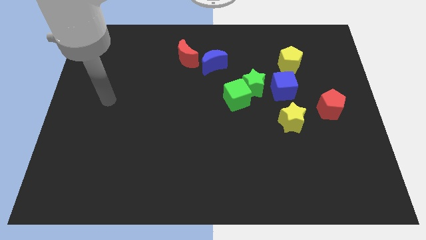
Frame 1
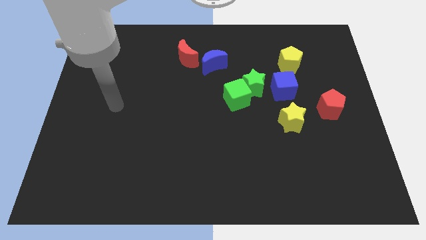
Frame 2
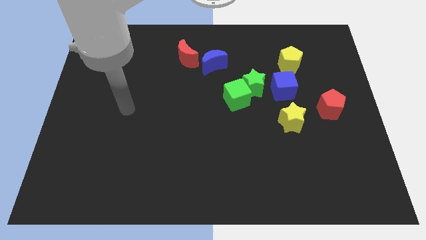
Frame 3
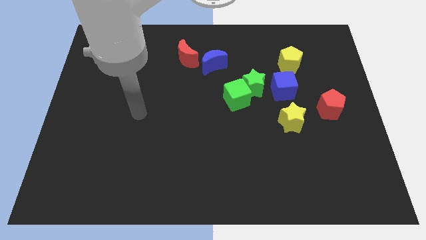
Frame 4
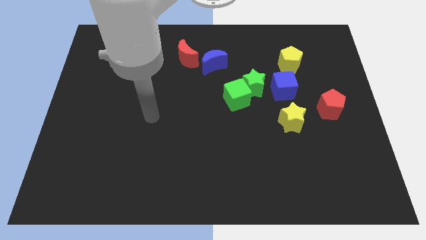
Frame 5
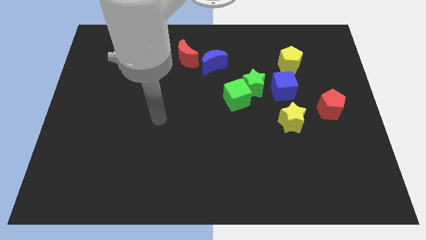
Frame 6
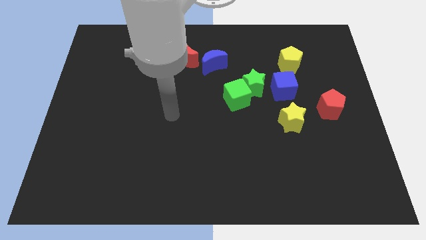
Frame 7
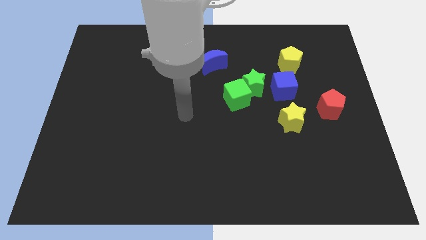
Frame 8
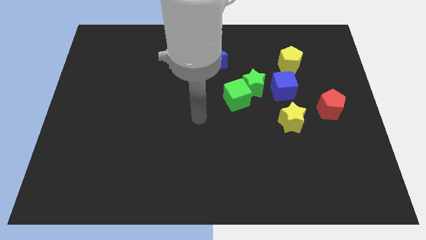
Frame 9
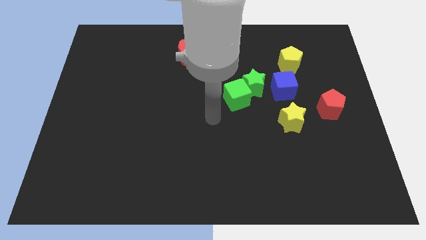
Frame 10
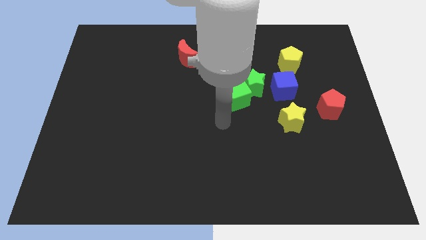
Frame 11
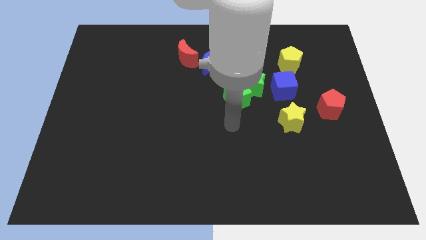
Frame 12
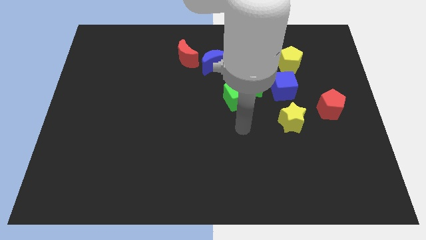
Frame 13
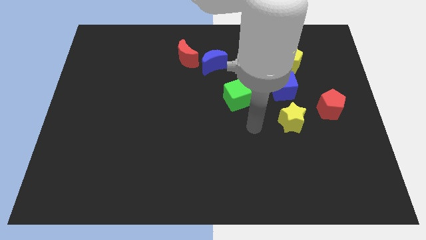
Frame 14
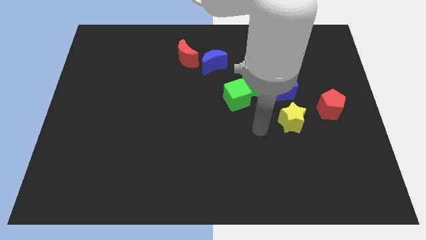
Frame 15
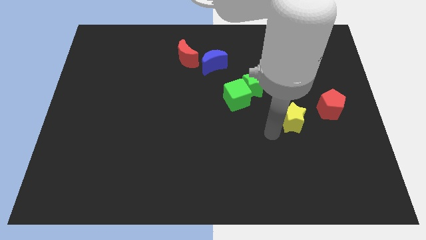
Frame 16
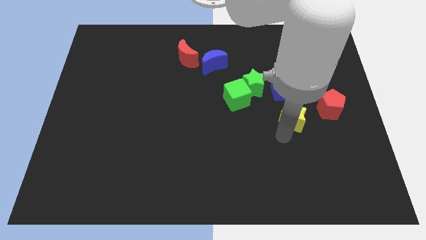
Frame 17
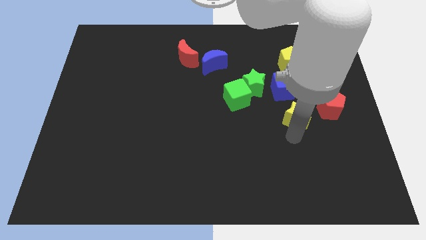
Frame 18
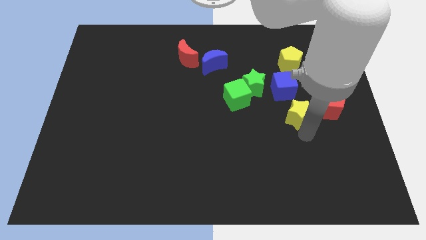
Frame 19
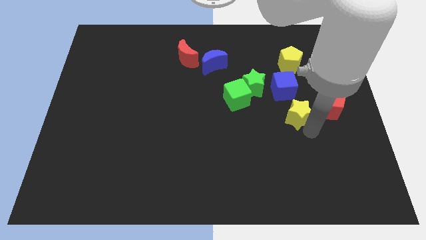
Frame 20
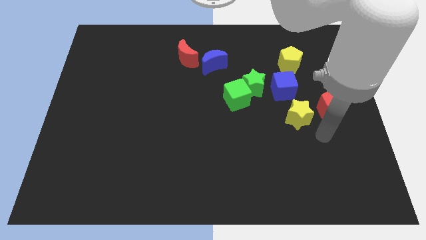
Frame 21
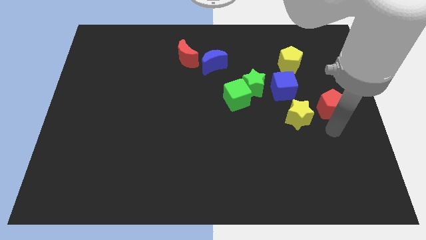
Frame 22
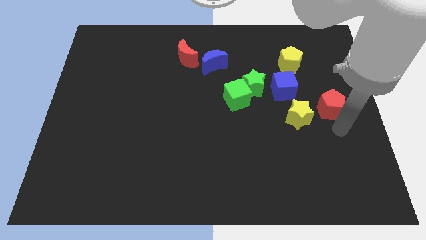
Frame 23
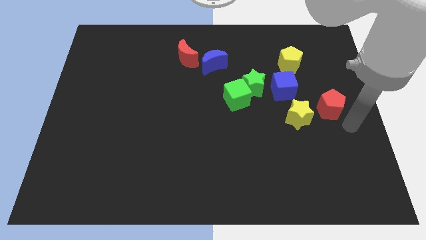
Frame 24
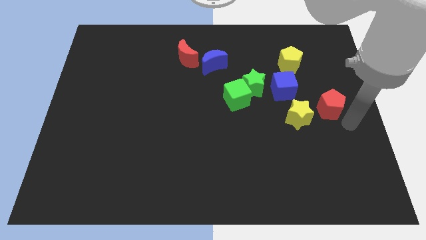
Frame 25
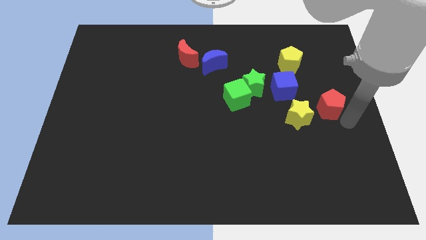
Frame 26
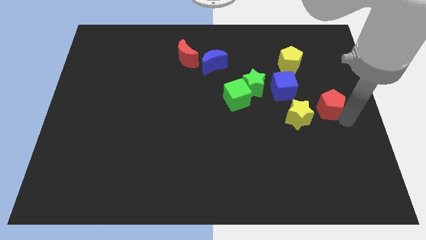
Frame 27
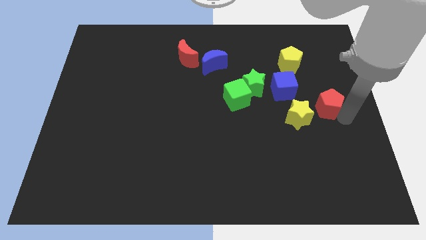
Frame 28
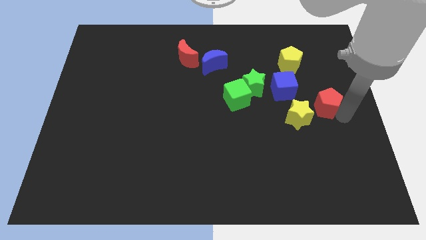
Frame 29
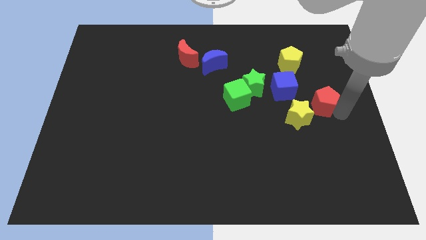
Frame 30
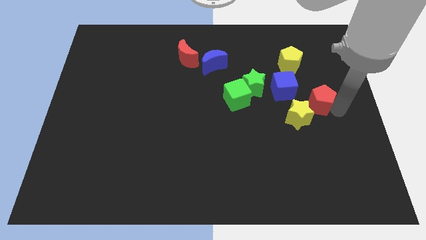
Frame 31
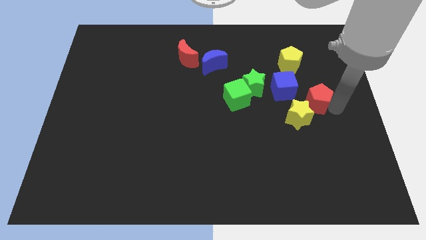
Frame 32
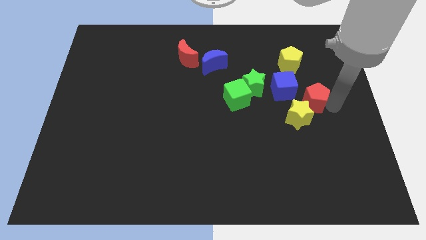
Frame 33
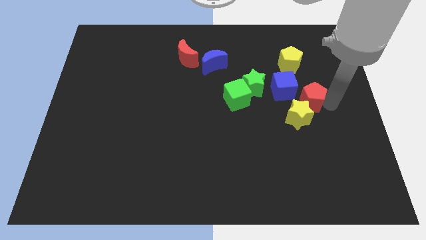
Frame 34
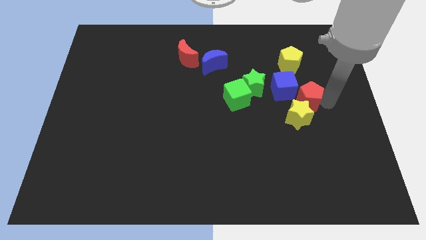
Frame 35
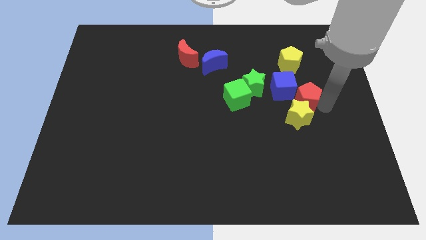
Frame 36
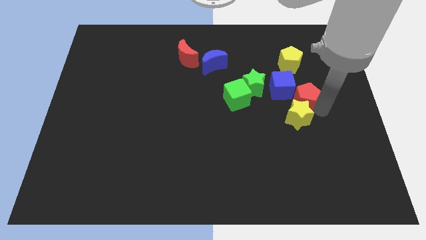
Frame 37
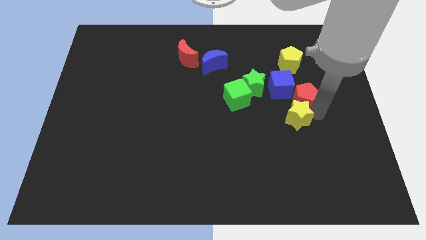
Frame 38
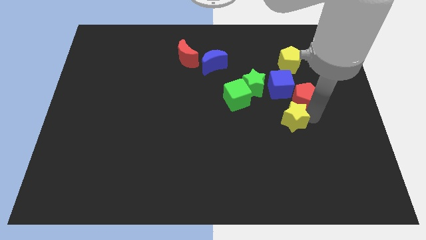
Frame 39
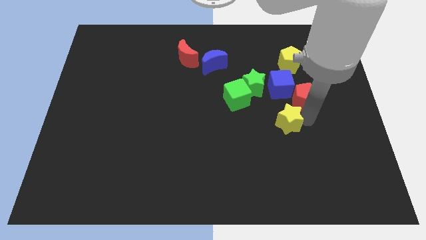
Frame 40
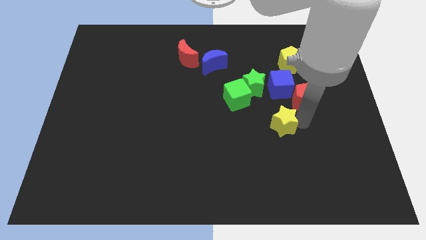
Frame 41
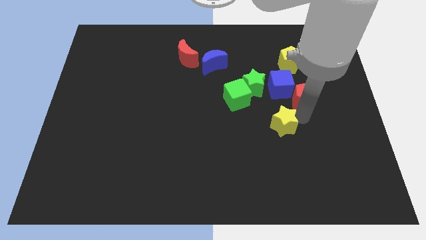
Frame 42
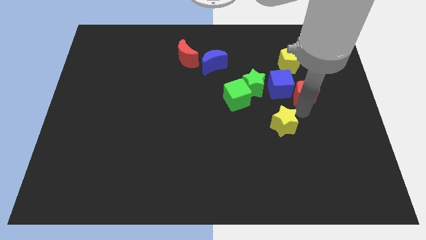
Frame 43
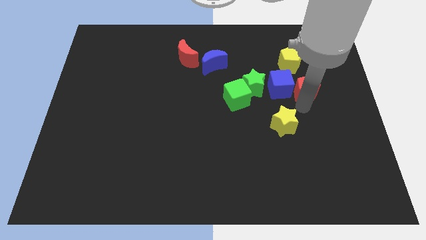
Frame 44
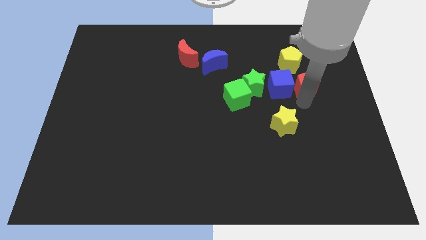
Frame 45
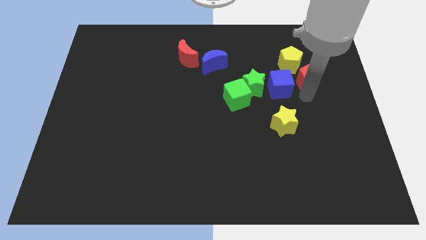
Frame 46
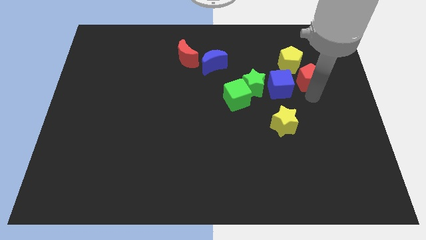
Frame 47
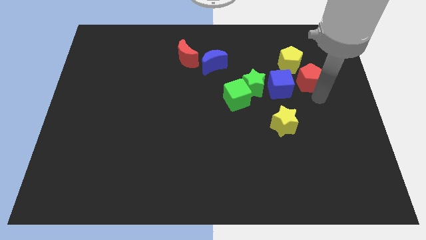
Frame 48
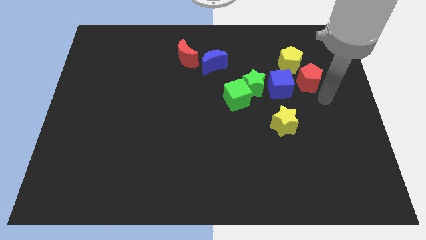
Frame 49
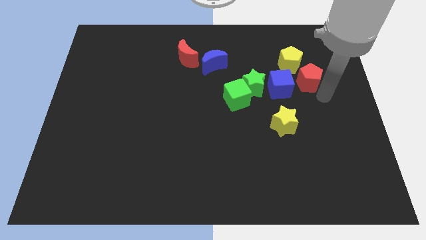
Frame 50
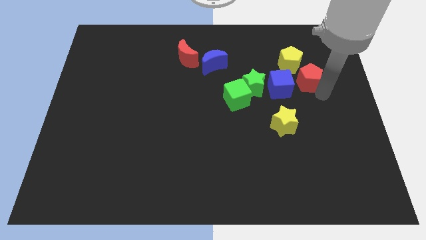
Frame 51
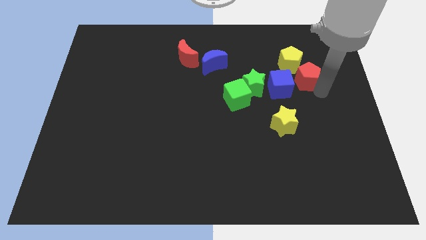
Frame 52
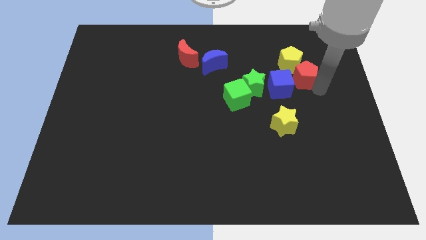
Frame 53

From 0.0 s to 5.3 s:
slide the red pentagon close to the yellow pentagon

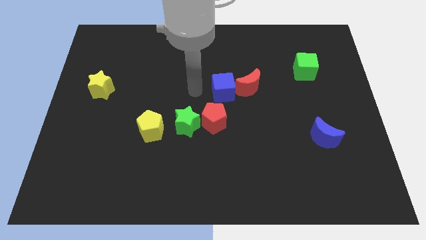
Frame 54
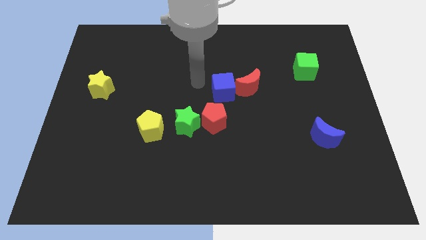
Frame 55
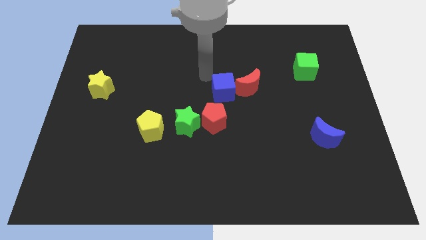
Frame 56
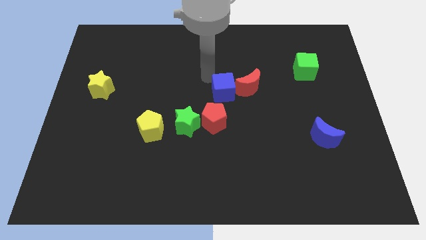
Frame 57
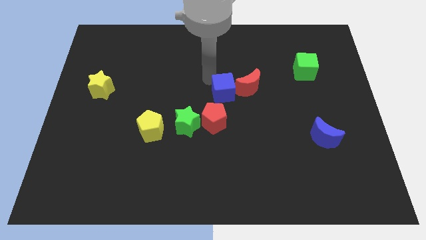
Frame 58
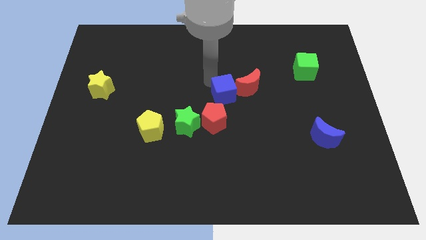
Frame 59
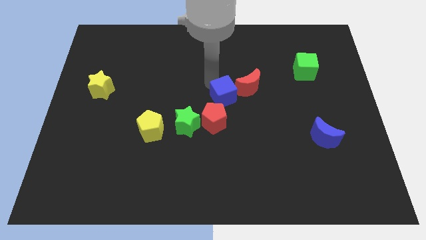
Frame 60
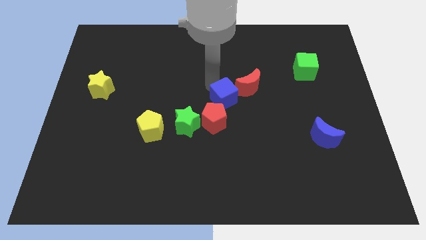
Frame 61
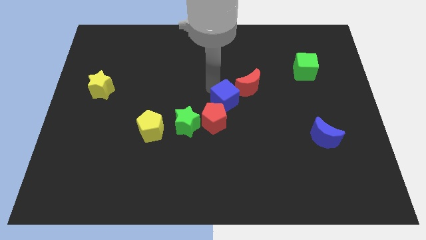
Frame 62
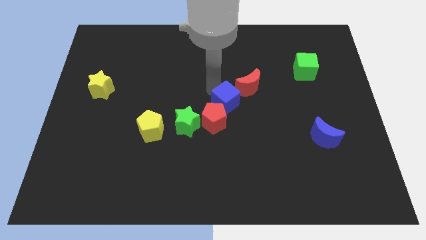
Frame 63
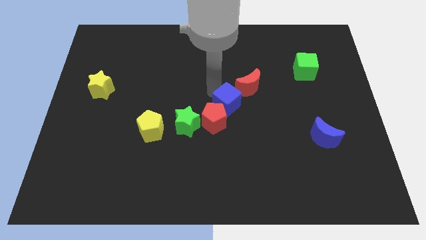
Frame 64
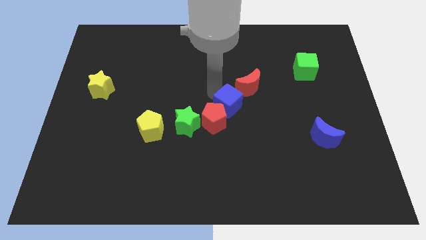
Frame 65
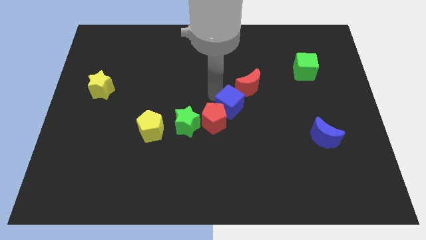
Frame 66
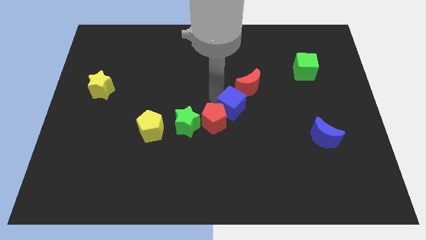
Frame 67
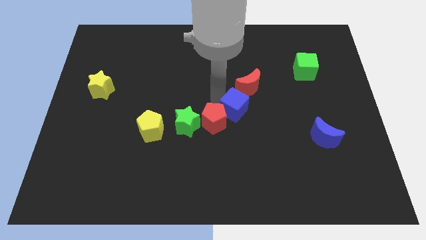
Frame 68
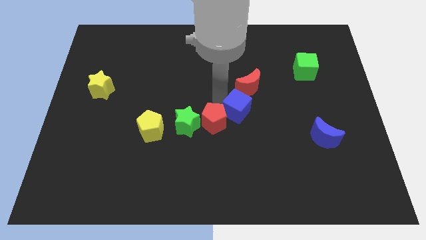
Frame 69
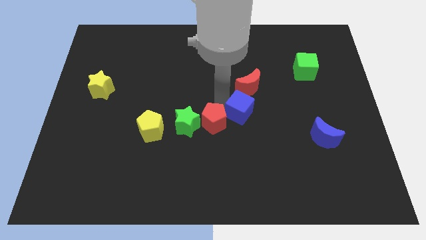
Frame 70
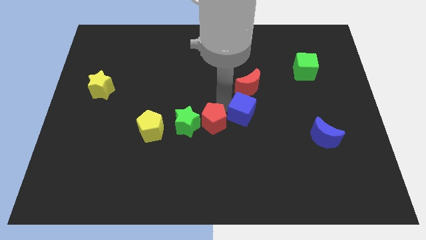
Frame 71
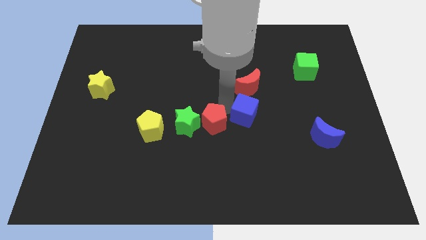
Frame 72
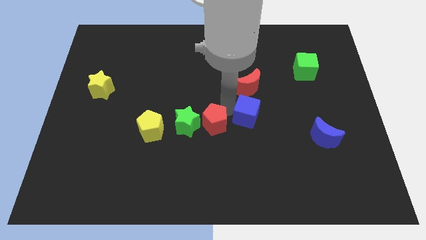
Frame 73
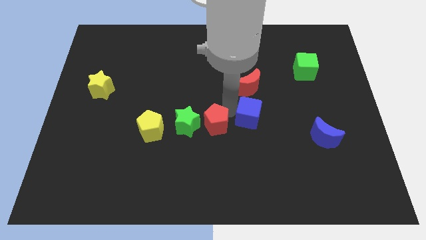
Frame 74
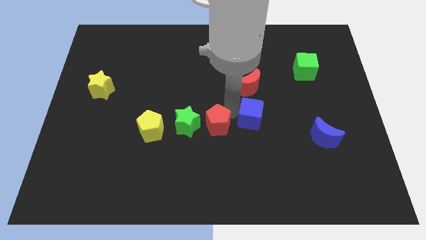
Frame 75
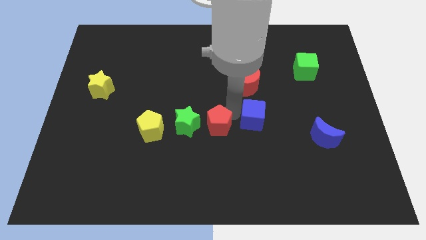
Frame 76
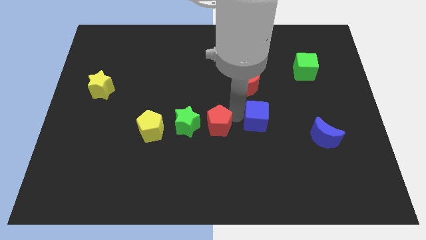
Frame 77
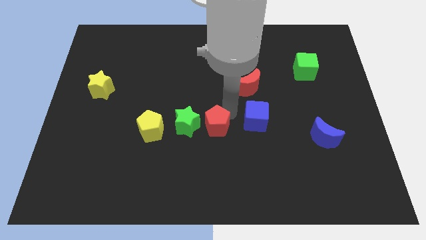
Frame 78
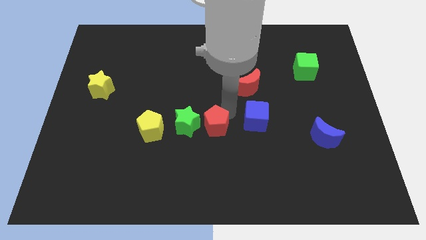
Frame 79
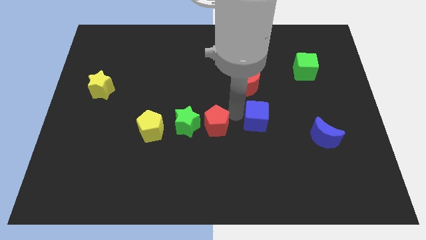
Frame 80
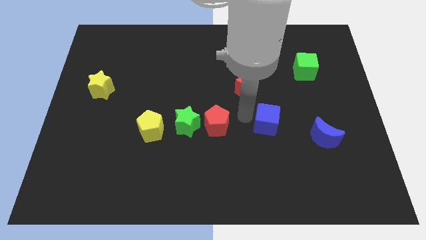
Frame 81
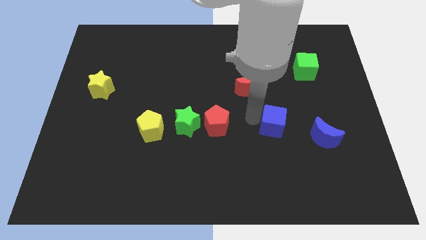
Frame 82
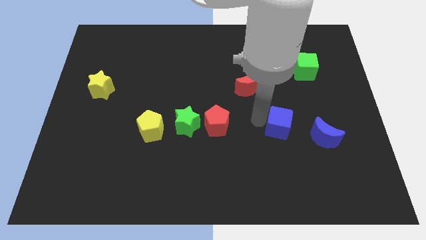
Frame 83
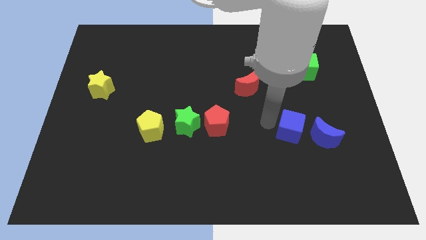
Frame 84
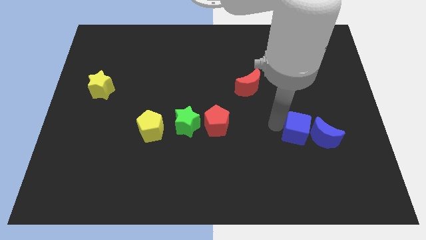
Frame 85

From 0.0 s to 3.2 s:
push the blue cube close to the blue moon
